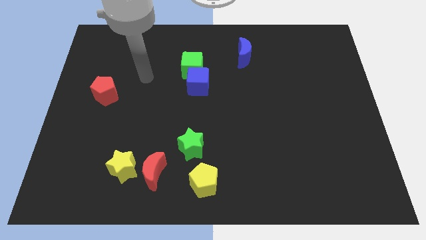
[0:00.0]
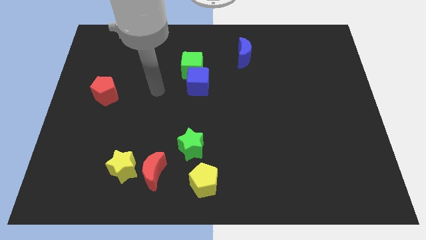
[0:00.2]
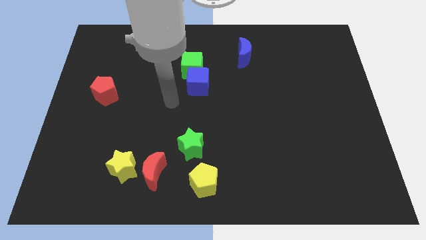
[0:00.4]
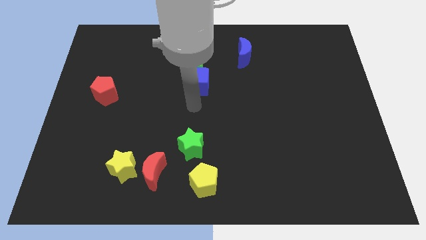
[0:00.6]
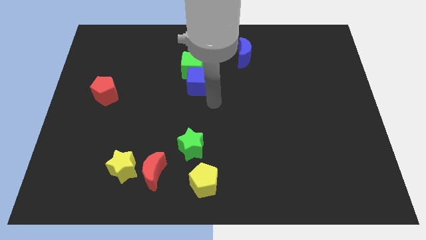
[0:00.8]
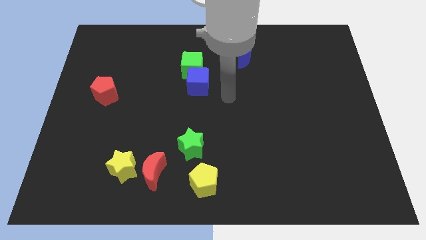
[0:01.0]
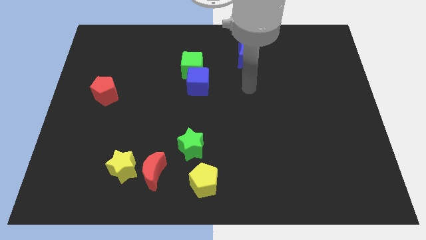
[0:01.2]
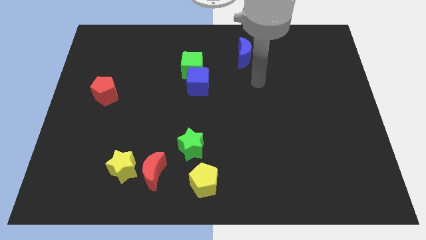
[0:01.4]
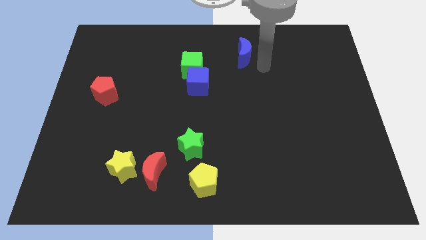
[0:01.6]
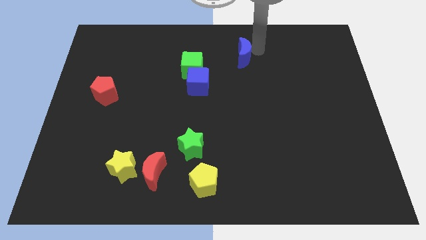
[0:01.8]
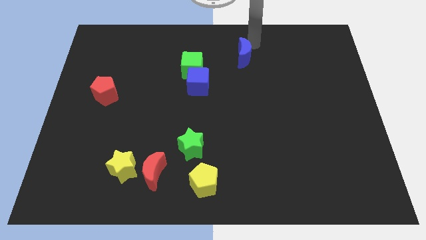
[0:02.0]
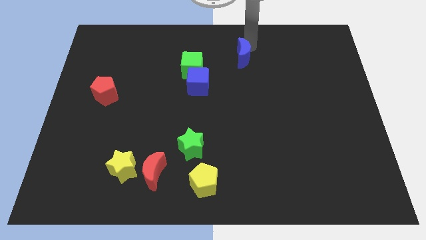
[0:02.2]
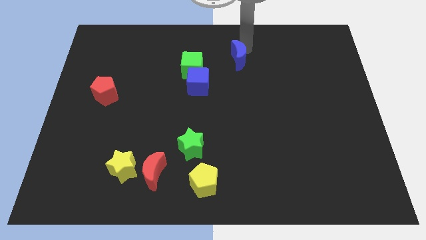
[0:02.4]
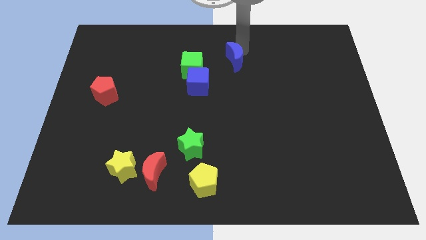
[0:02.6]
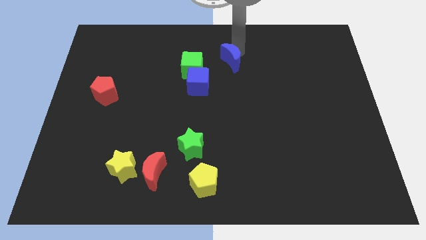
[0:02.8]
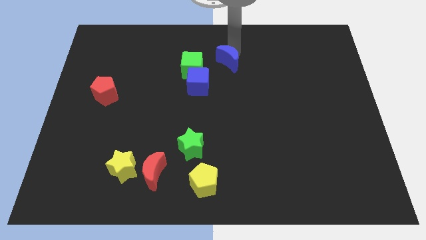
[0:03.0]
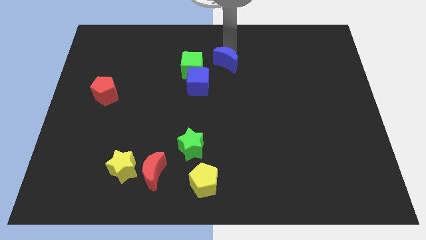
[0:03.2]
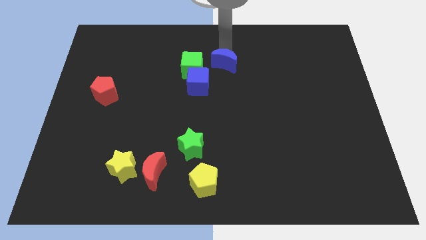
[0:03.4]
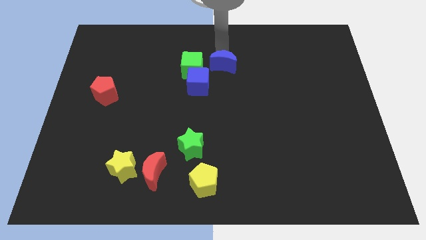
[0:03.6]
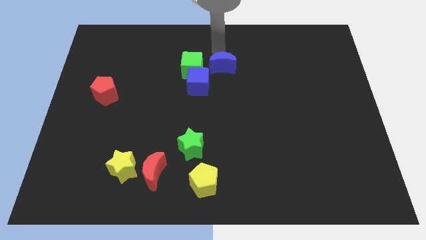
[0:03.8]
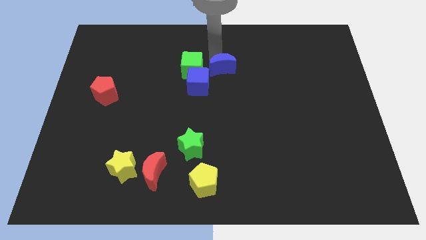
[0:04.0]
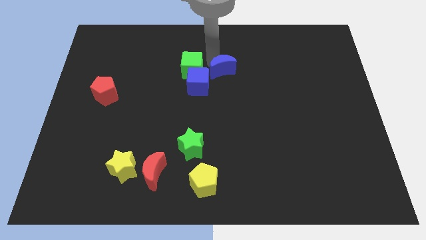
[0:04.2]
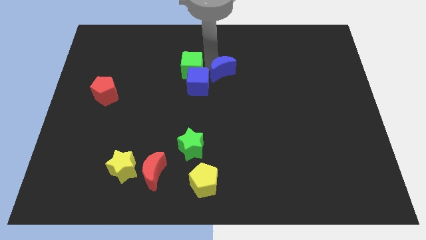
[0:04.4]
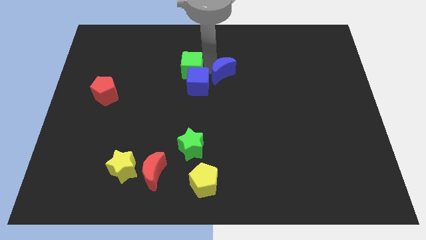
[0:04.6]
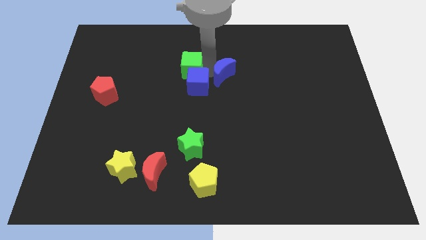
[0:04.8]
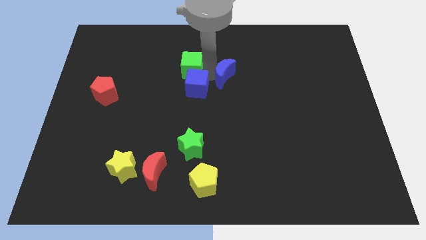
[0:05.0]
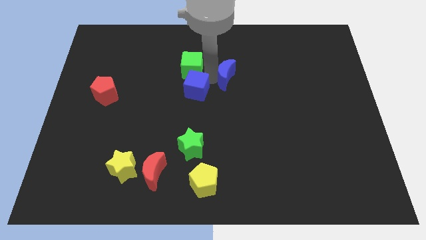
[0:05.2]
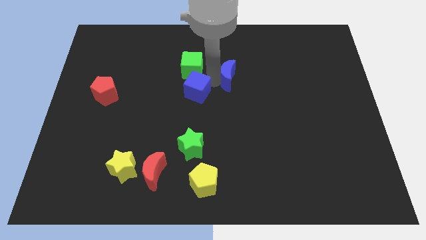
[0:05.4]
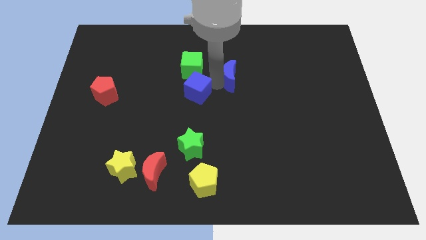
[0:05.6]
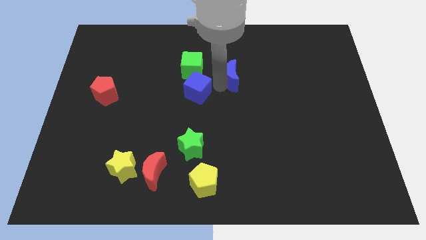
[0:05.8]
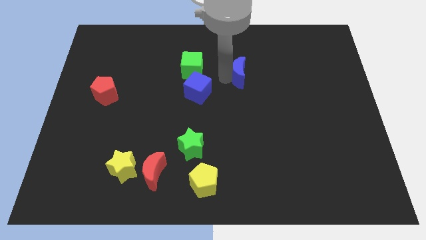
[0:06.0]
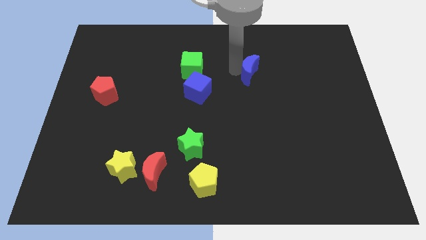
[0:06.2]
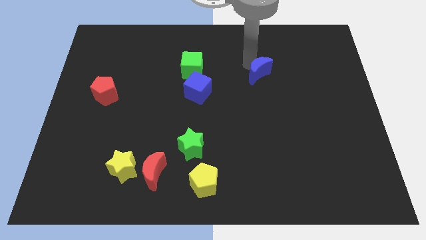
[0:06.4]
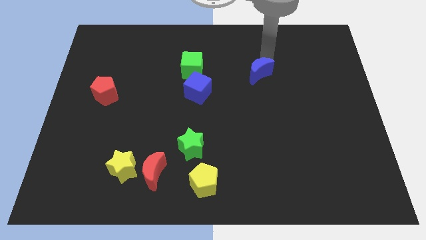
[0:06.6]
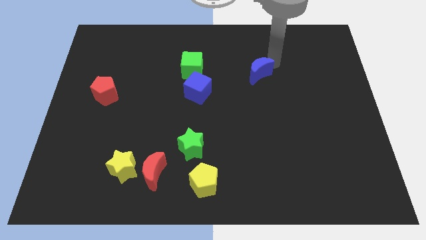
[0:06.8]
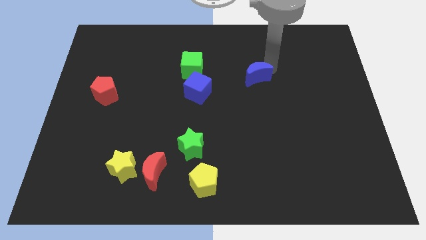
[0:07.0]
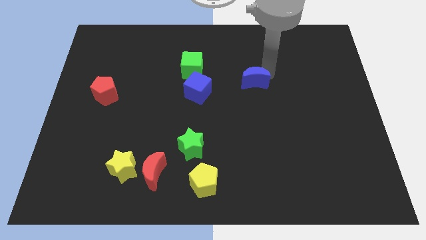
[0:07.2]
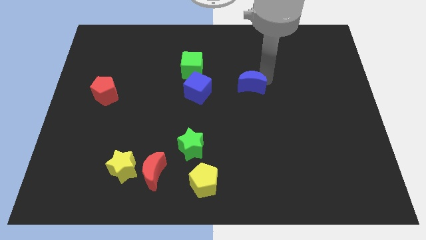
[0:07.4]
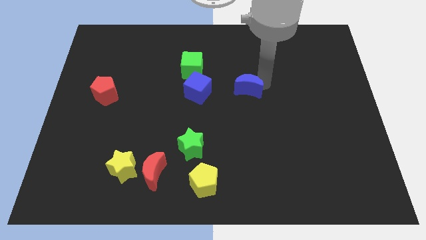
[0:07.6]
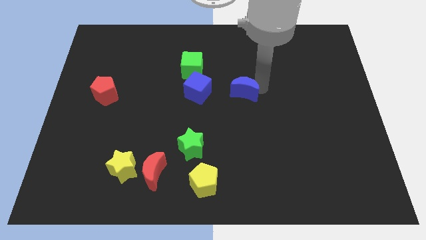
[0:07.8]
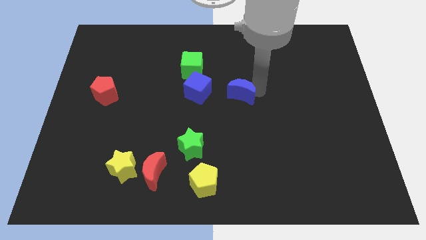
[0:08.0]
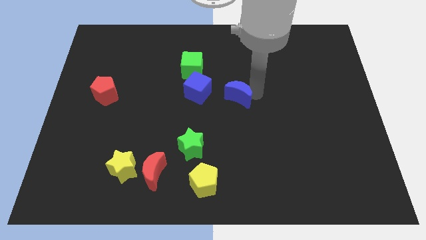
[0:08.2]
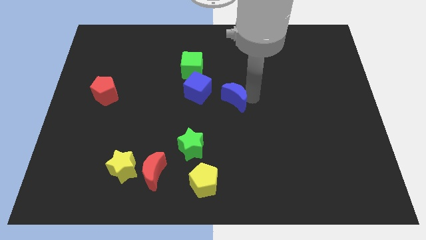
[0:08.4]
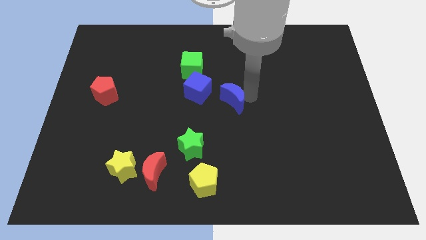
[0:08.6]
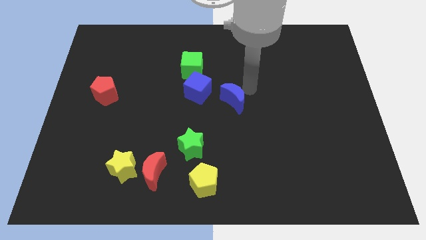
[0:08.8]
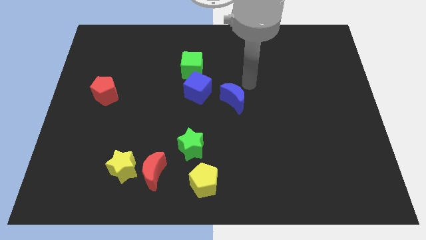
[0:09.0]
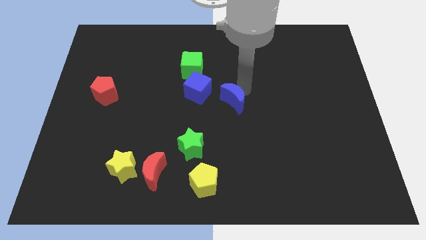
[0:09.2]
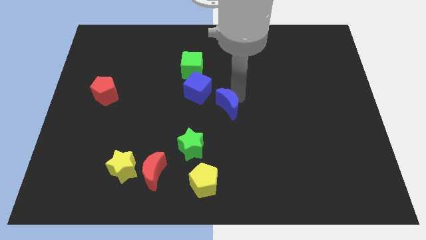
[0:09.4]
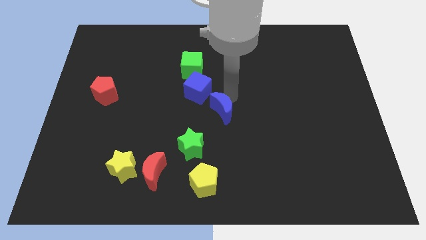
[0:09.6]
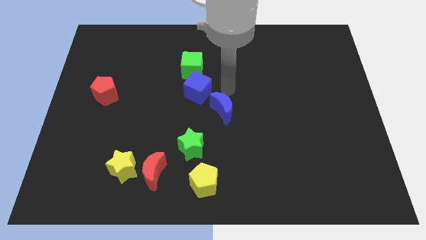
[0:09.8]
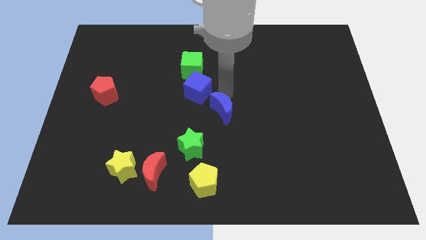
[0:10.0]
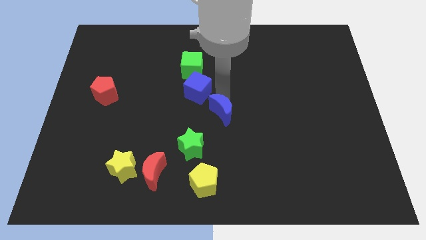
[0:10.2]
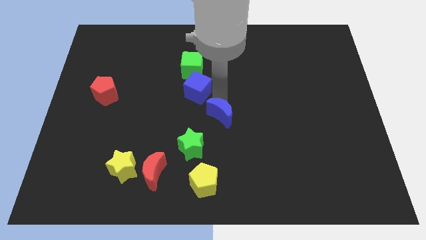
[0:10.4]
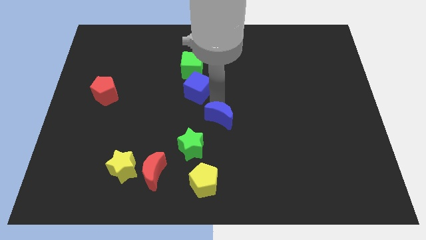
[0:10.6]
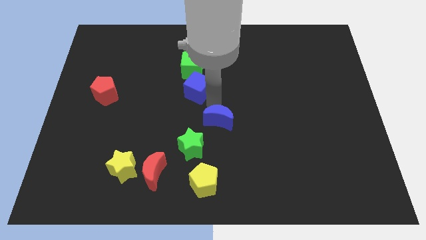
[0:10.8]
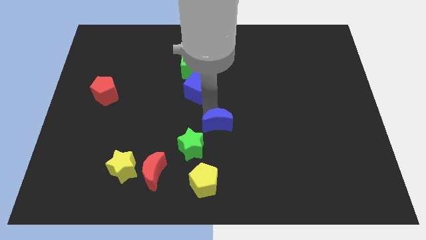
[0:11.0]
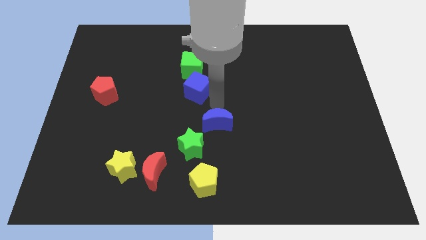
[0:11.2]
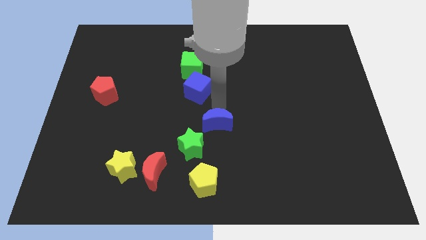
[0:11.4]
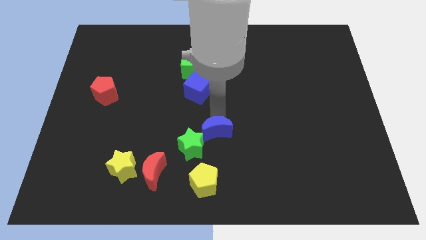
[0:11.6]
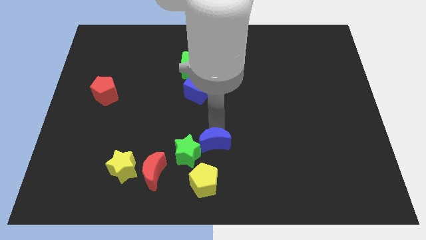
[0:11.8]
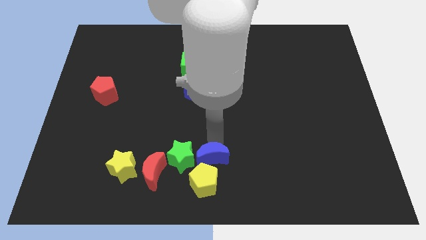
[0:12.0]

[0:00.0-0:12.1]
push the blue moon to the yellow pentagon

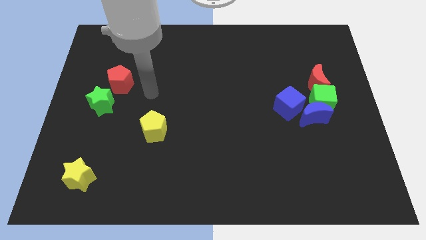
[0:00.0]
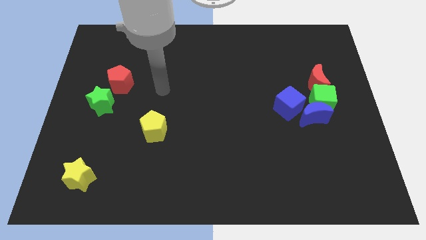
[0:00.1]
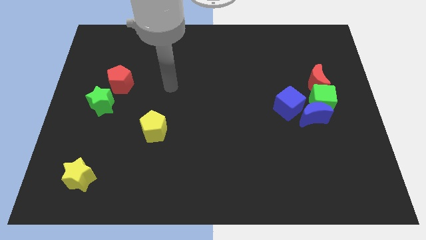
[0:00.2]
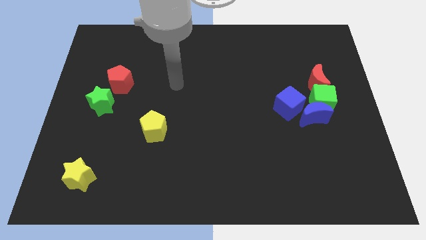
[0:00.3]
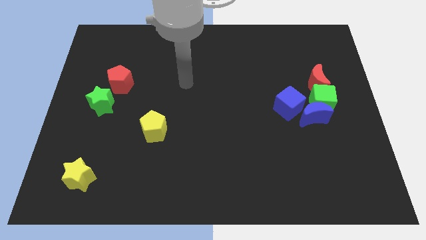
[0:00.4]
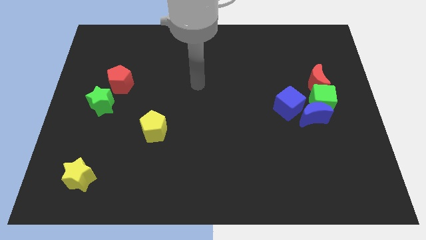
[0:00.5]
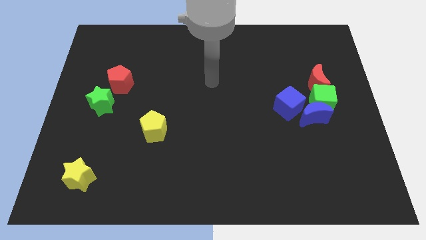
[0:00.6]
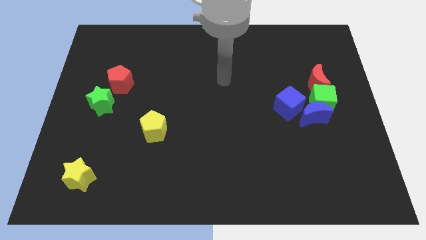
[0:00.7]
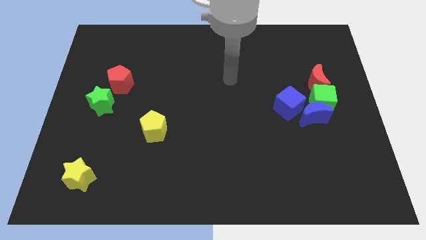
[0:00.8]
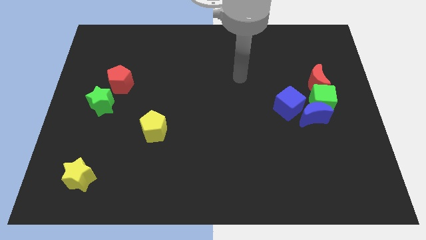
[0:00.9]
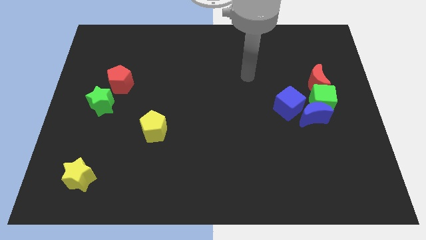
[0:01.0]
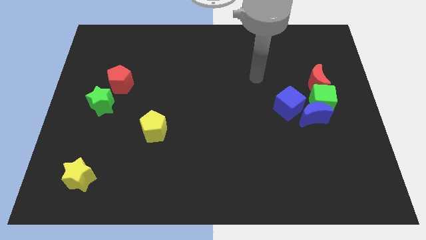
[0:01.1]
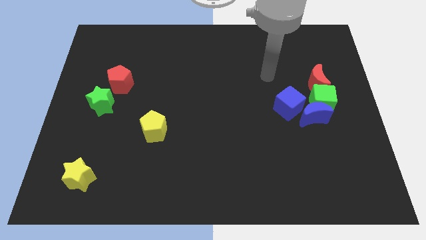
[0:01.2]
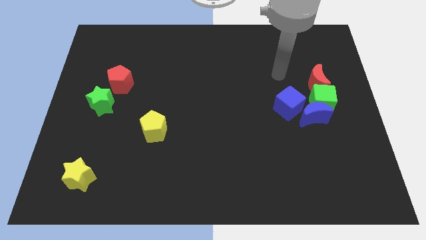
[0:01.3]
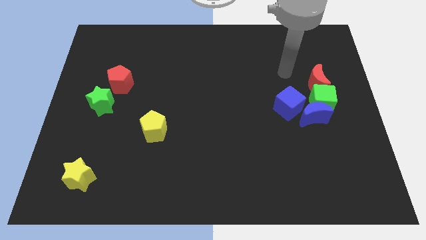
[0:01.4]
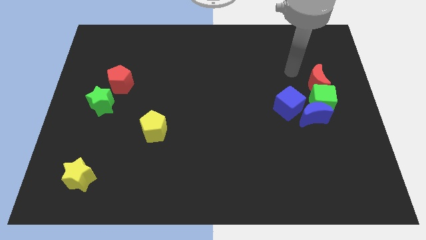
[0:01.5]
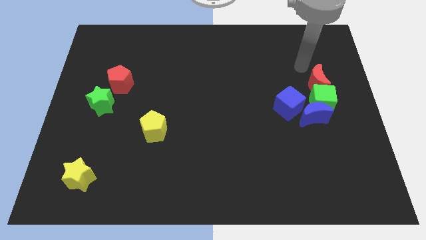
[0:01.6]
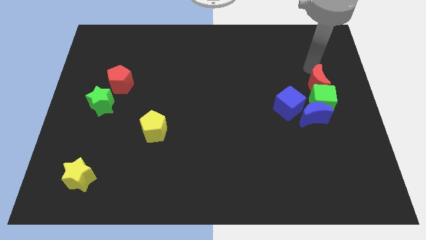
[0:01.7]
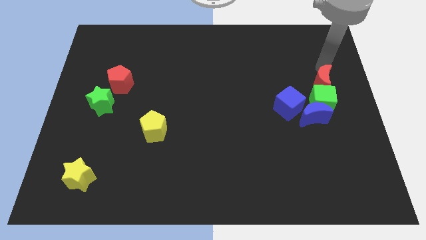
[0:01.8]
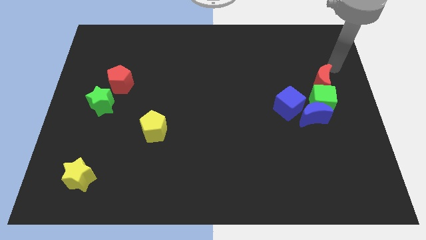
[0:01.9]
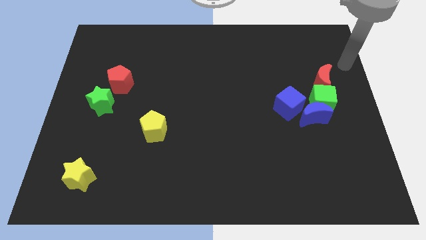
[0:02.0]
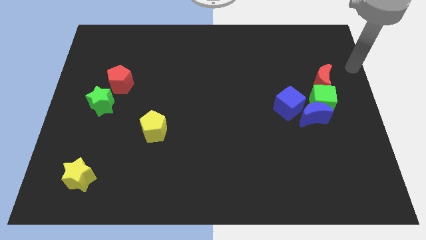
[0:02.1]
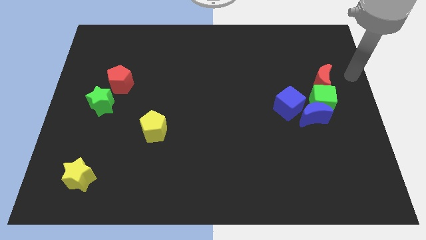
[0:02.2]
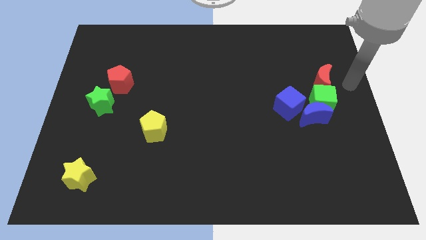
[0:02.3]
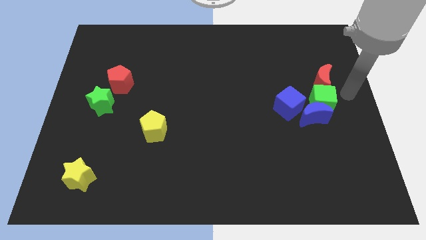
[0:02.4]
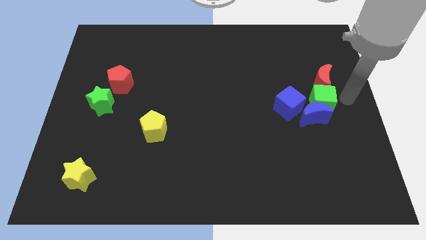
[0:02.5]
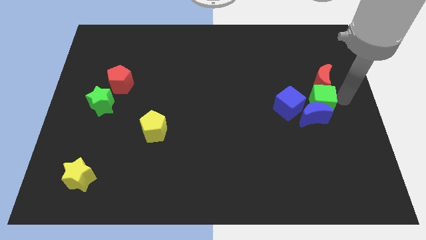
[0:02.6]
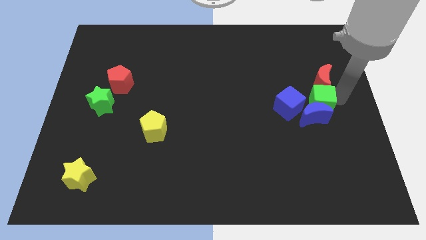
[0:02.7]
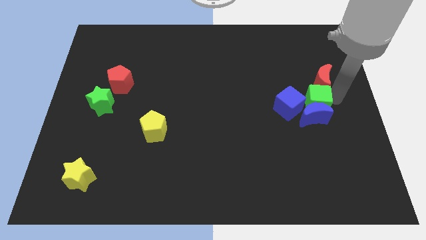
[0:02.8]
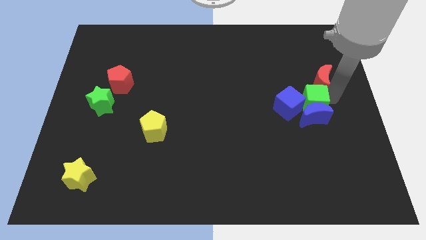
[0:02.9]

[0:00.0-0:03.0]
put the green cube next to the blue cube
